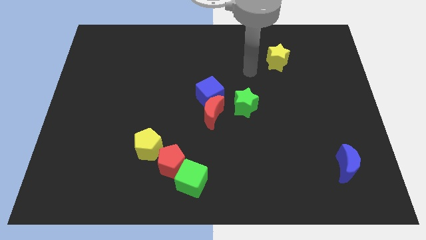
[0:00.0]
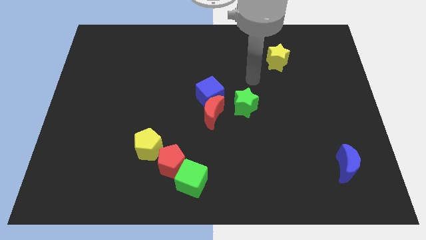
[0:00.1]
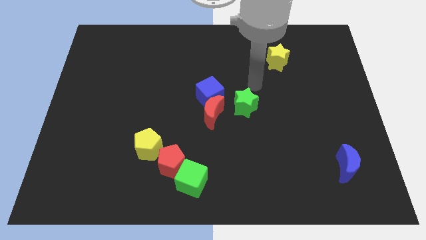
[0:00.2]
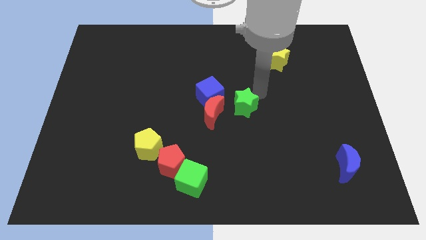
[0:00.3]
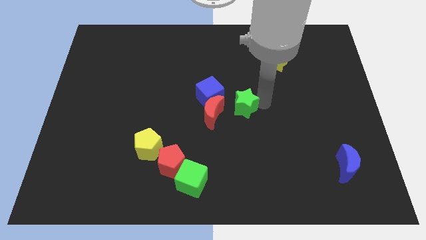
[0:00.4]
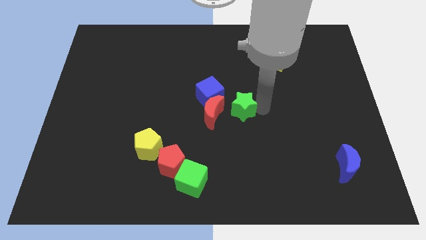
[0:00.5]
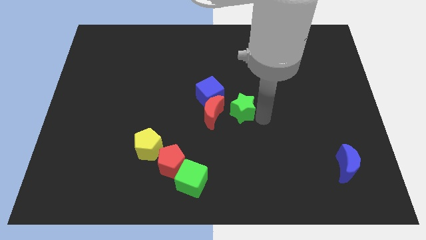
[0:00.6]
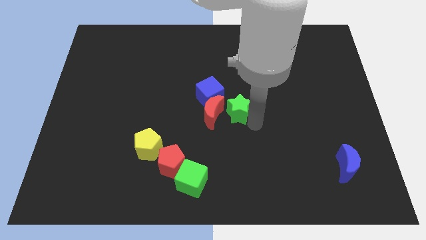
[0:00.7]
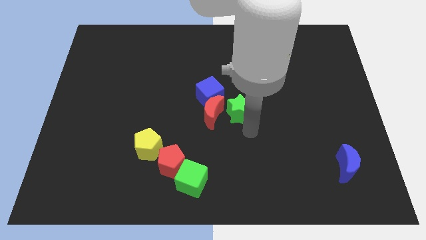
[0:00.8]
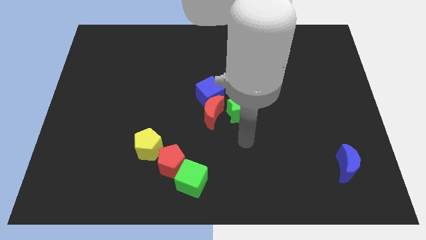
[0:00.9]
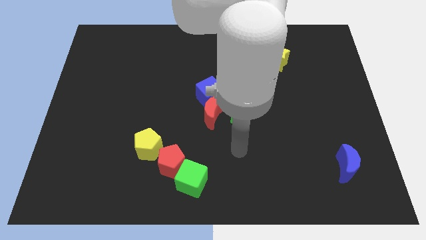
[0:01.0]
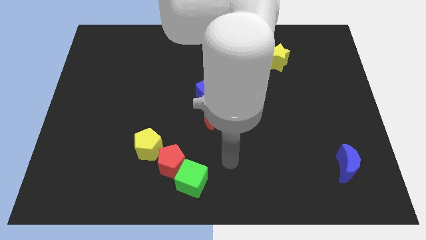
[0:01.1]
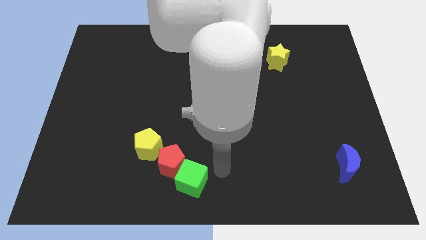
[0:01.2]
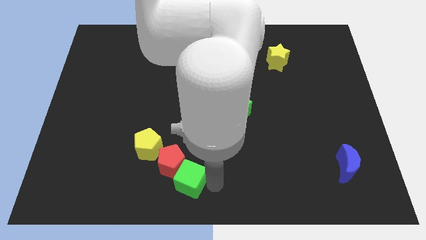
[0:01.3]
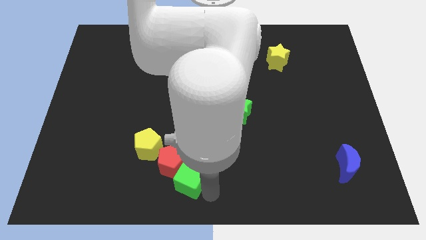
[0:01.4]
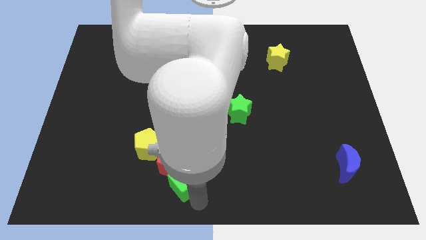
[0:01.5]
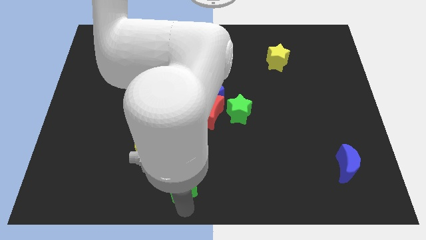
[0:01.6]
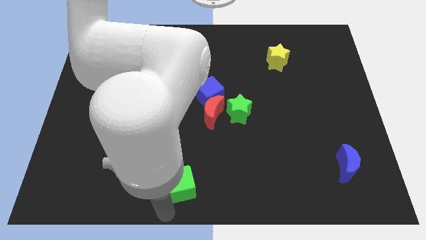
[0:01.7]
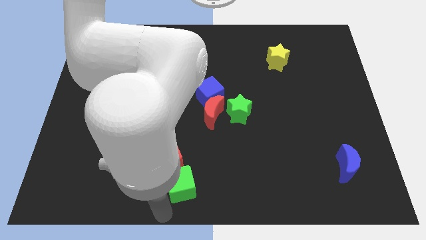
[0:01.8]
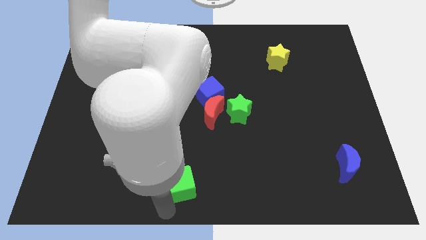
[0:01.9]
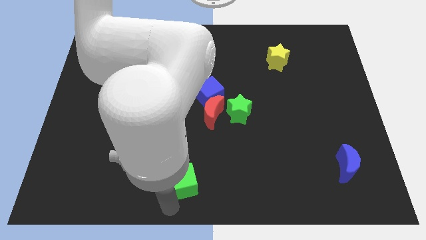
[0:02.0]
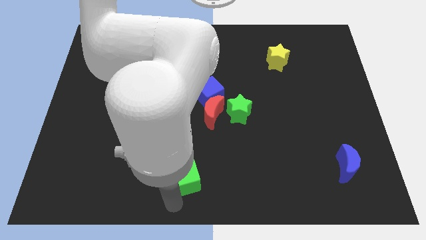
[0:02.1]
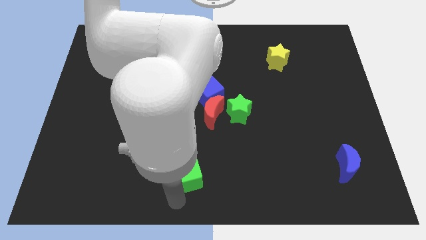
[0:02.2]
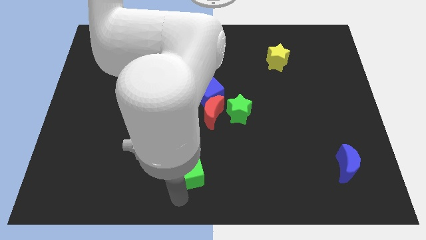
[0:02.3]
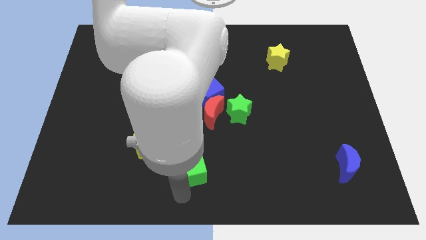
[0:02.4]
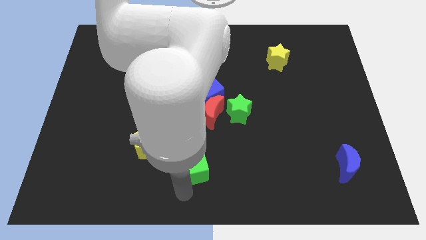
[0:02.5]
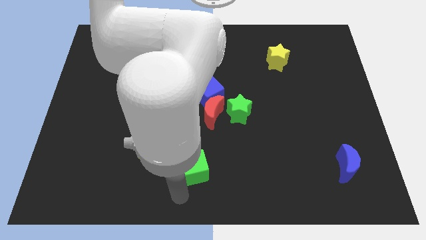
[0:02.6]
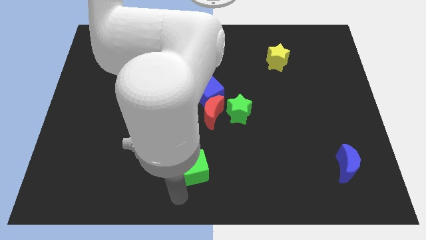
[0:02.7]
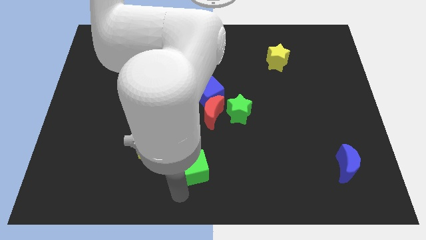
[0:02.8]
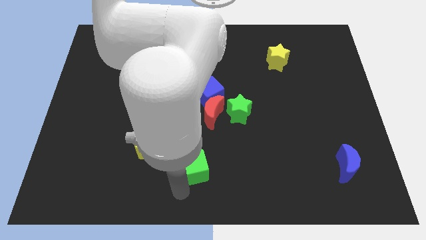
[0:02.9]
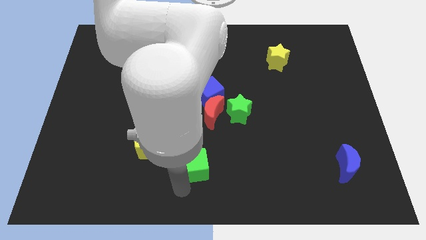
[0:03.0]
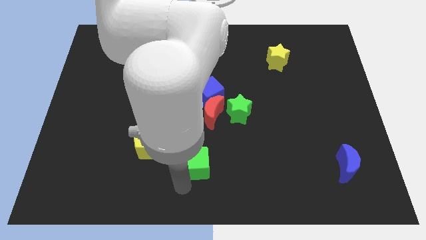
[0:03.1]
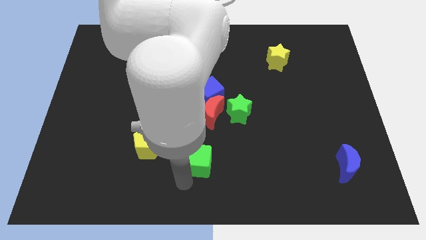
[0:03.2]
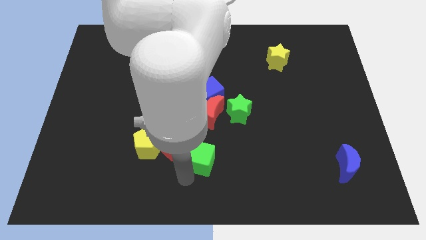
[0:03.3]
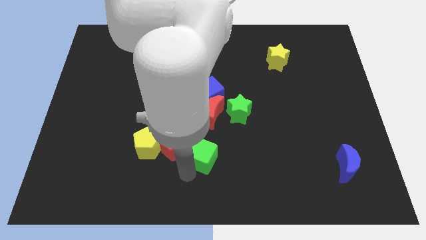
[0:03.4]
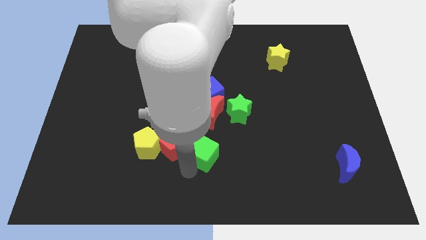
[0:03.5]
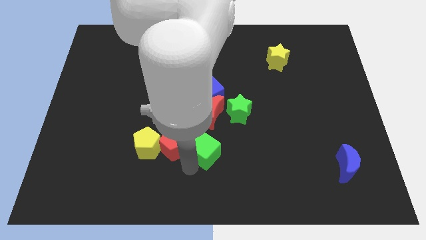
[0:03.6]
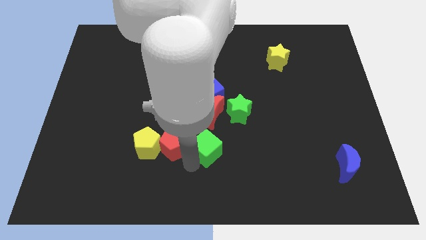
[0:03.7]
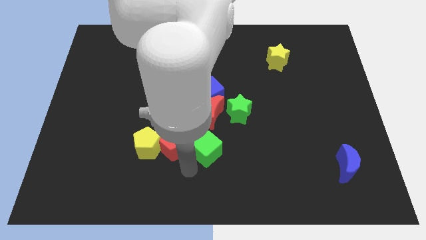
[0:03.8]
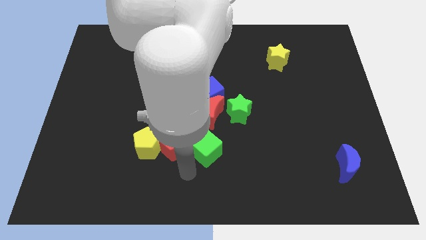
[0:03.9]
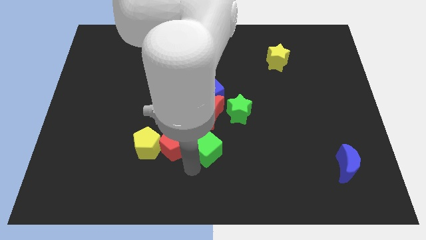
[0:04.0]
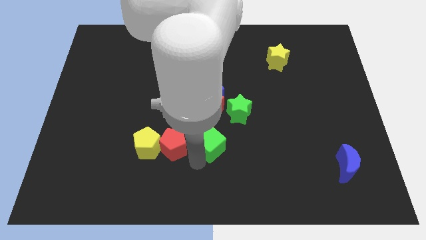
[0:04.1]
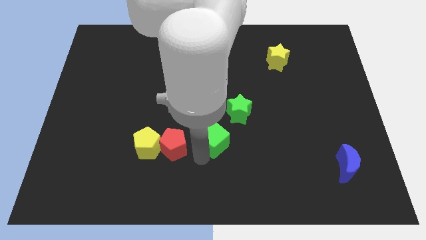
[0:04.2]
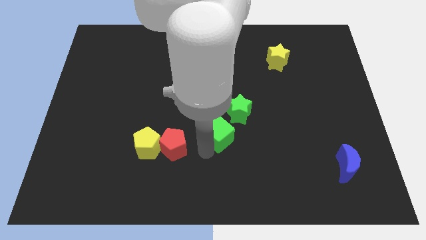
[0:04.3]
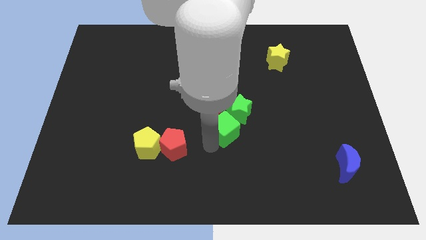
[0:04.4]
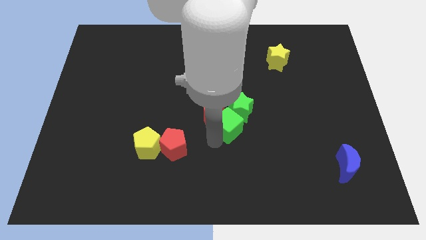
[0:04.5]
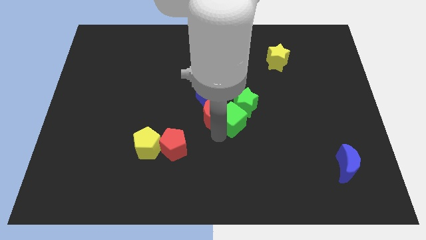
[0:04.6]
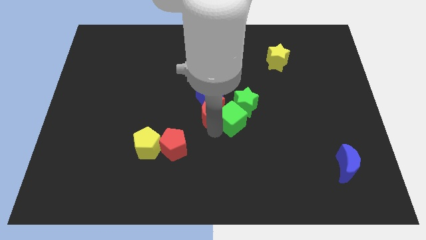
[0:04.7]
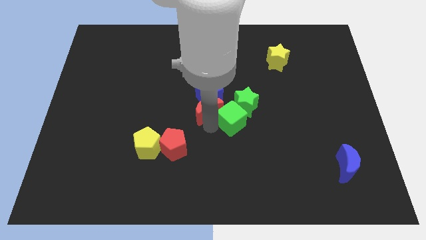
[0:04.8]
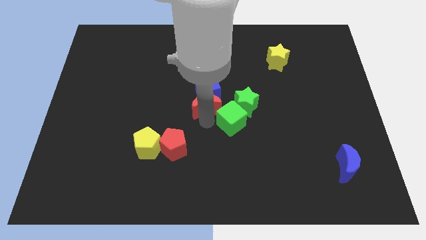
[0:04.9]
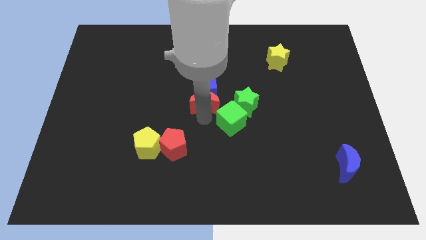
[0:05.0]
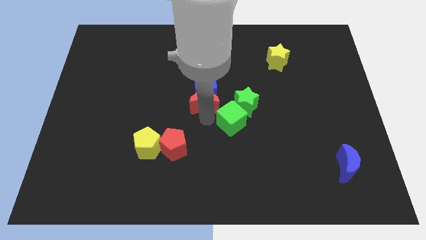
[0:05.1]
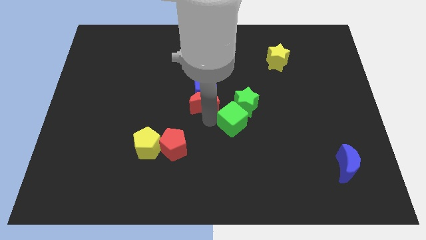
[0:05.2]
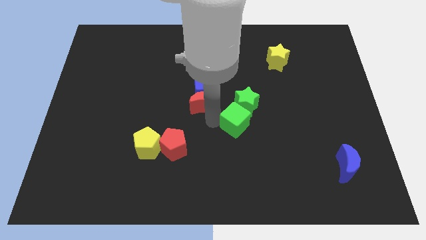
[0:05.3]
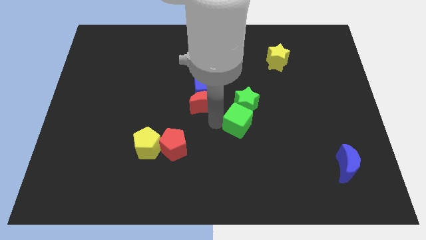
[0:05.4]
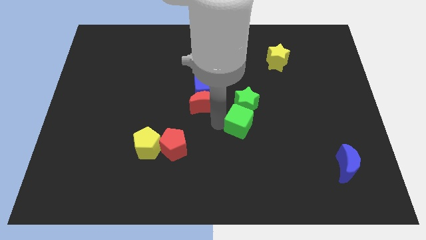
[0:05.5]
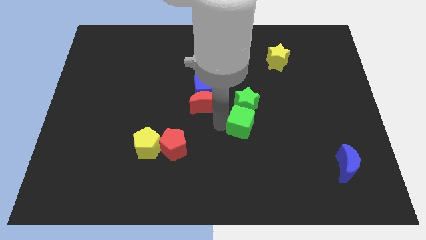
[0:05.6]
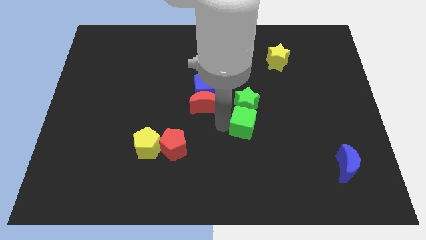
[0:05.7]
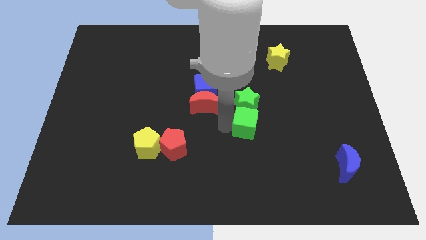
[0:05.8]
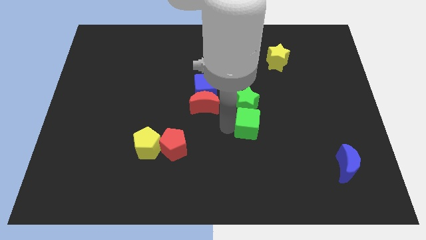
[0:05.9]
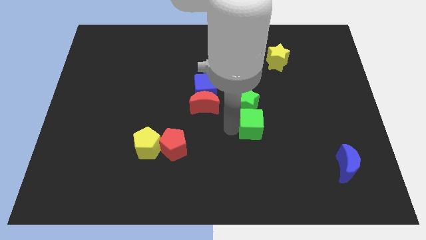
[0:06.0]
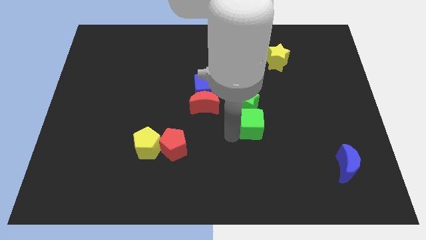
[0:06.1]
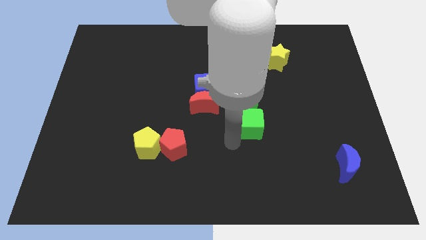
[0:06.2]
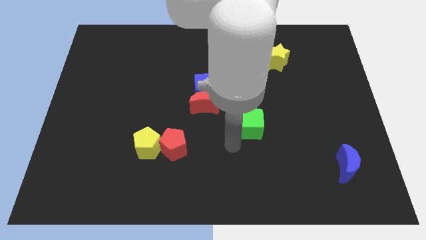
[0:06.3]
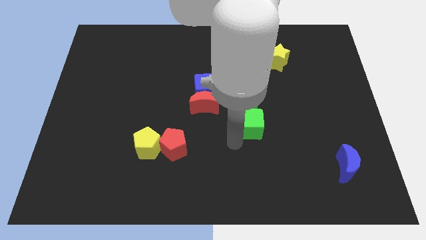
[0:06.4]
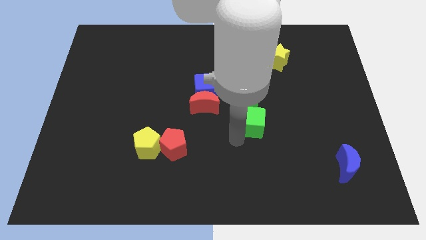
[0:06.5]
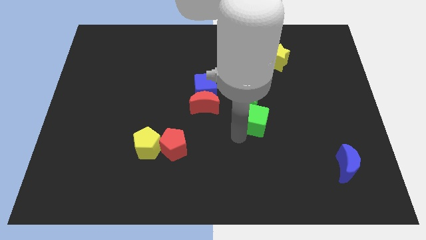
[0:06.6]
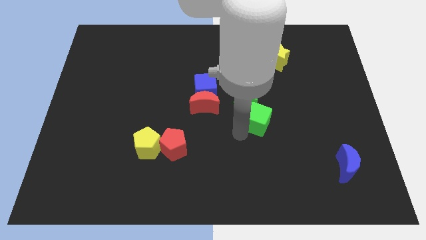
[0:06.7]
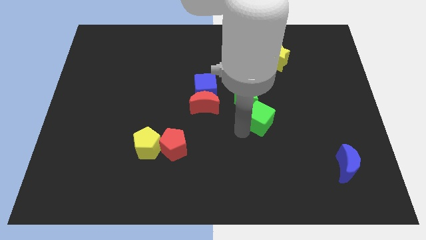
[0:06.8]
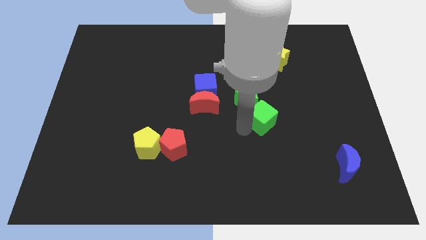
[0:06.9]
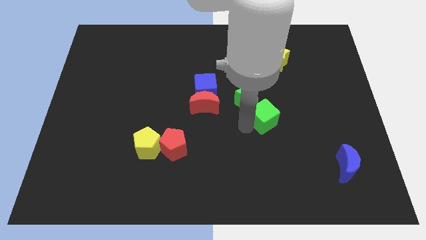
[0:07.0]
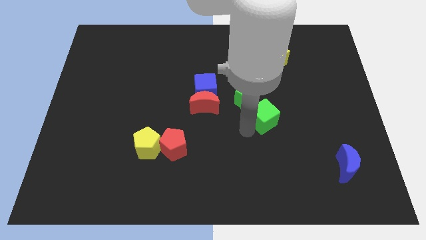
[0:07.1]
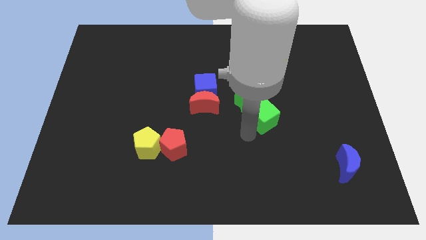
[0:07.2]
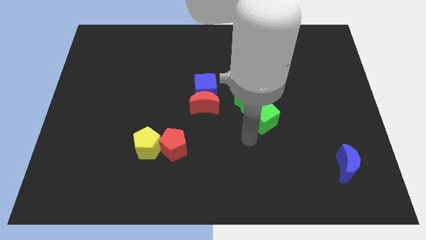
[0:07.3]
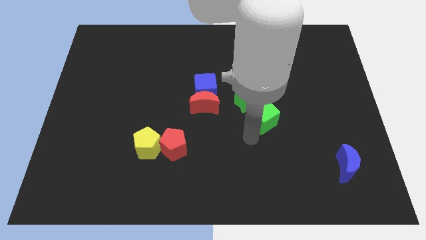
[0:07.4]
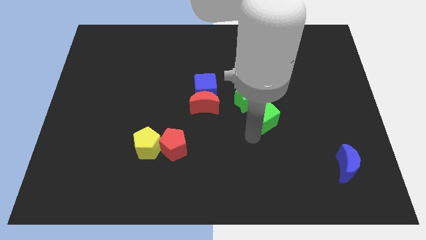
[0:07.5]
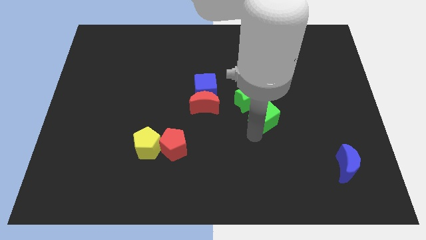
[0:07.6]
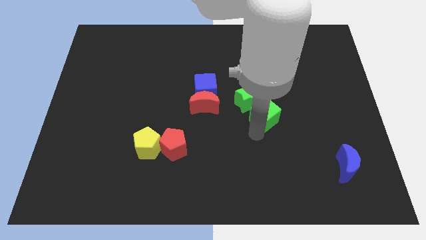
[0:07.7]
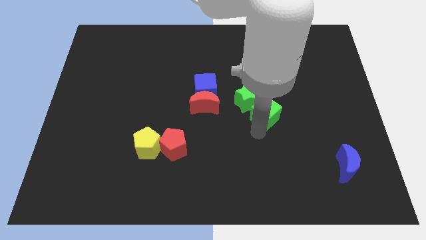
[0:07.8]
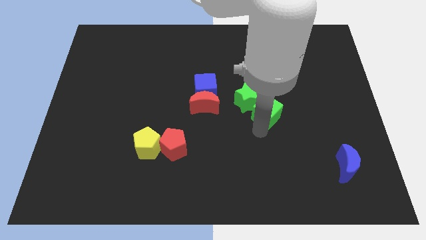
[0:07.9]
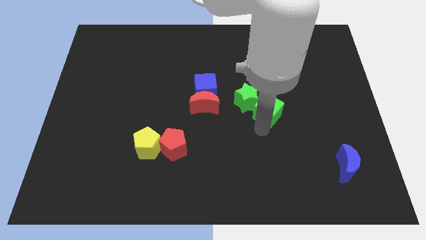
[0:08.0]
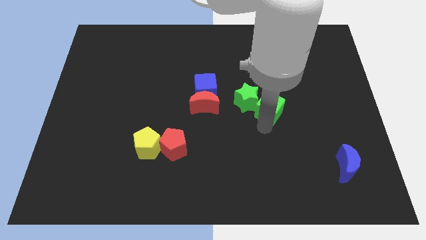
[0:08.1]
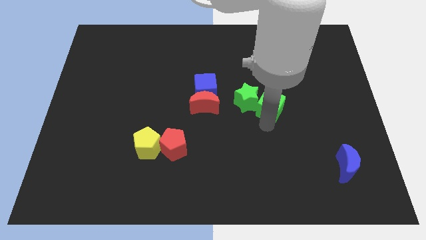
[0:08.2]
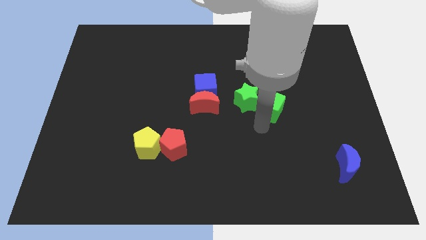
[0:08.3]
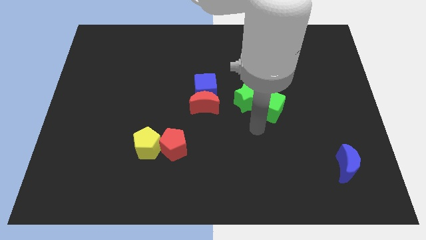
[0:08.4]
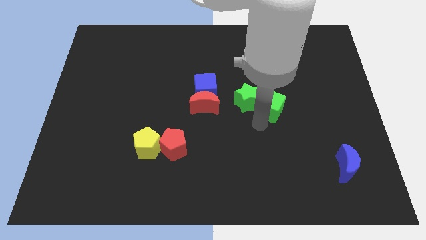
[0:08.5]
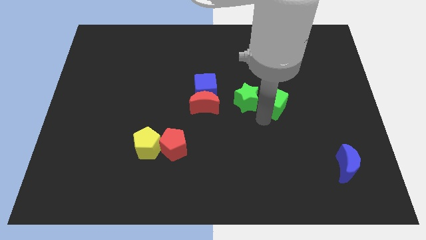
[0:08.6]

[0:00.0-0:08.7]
move the green cube to the bottom of the yellow star
